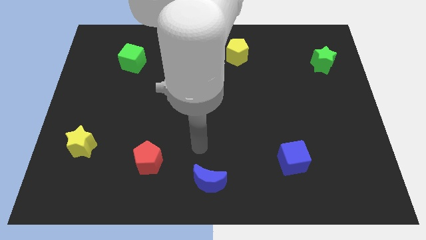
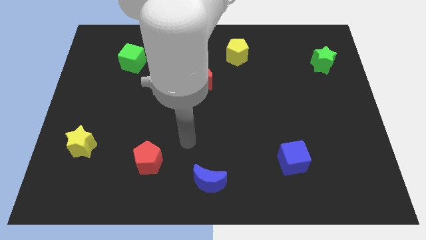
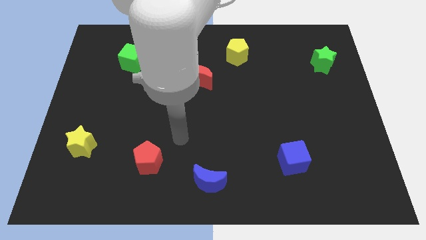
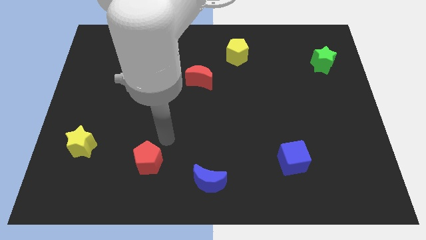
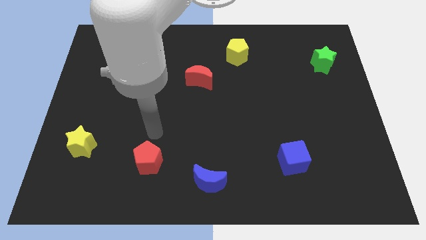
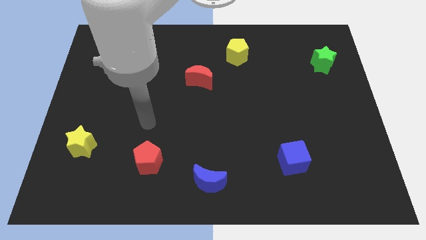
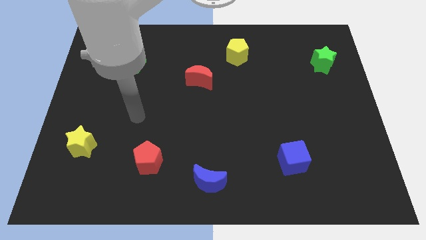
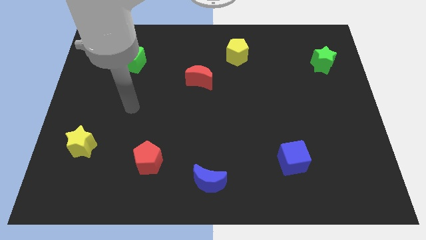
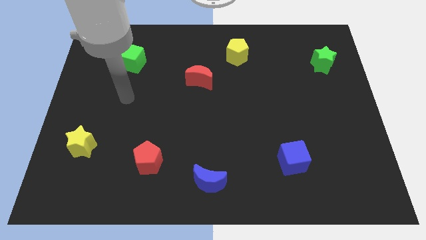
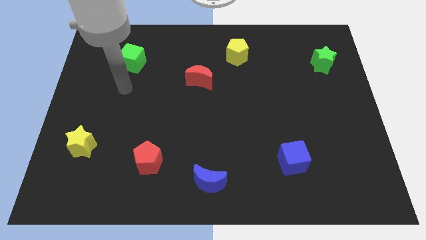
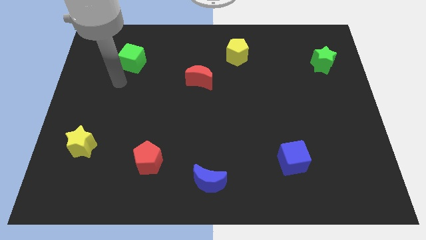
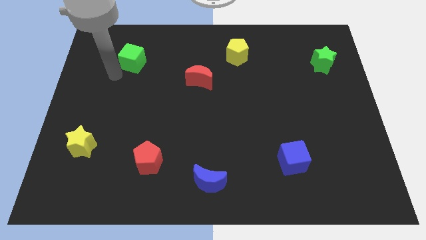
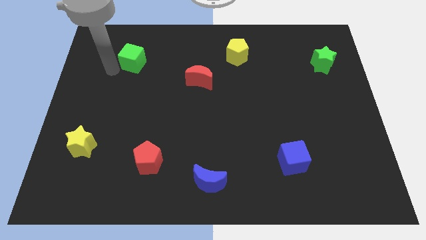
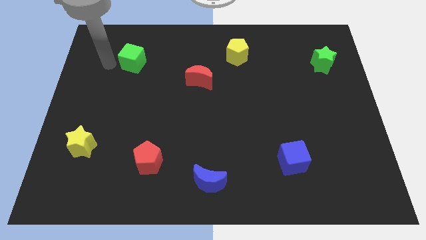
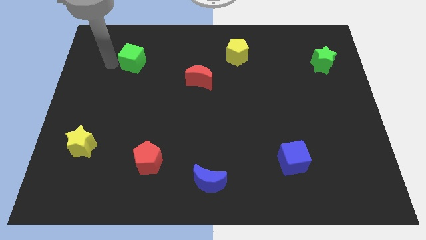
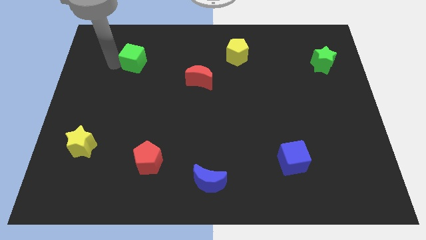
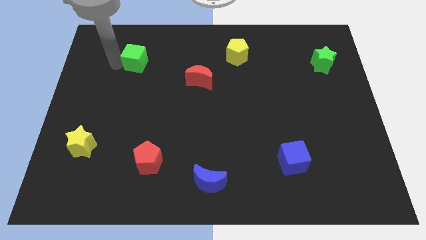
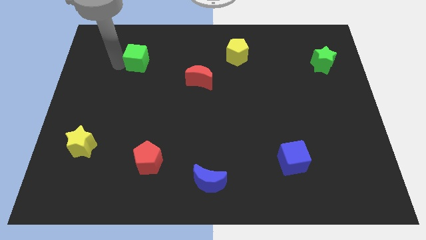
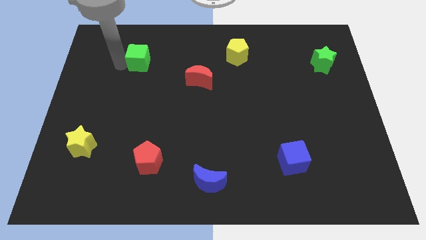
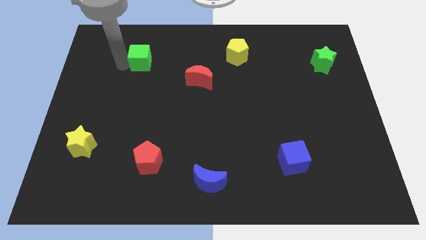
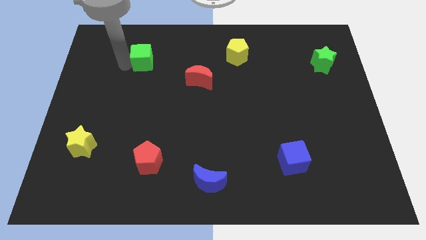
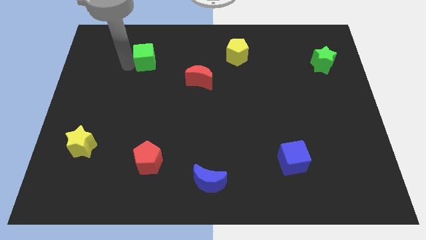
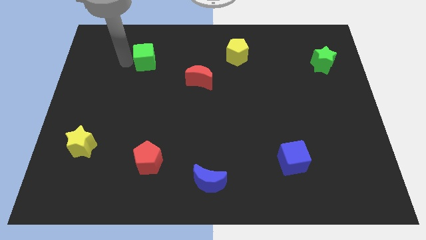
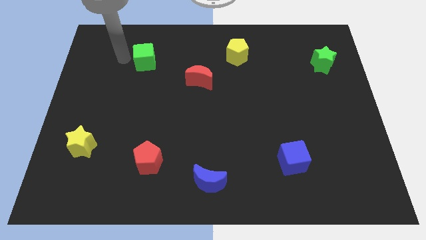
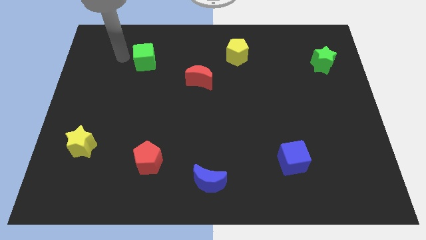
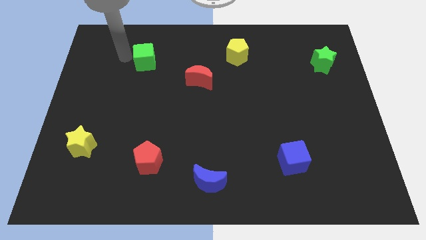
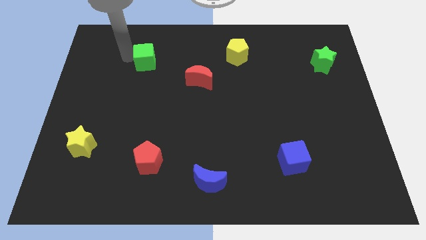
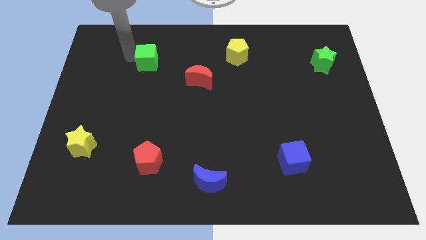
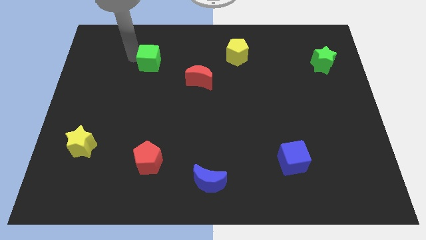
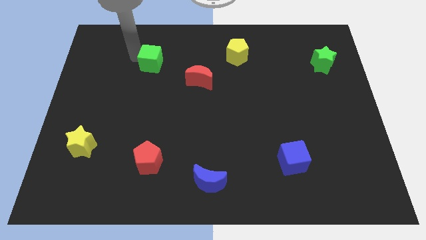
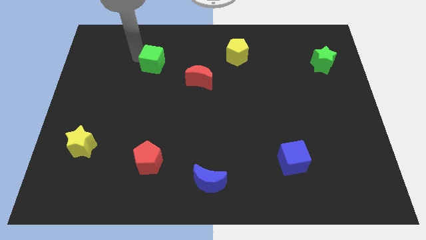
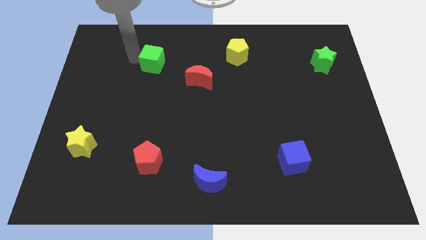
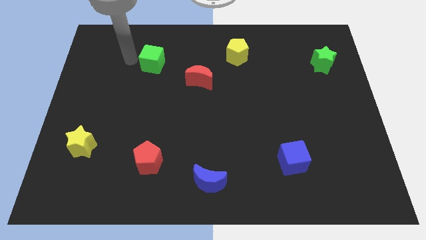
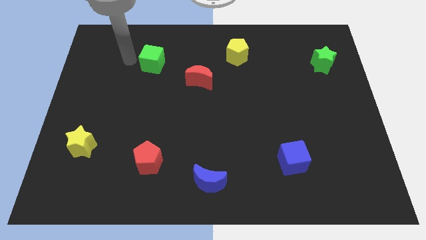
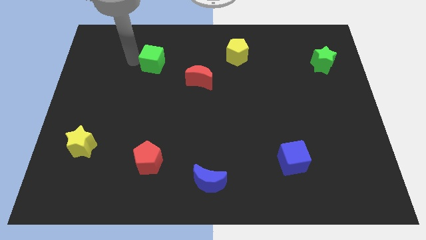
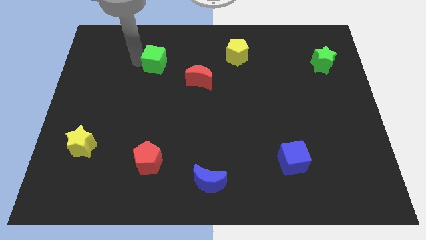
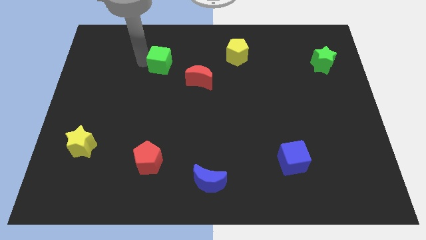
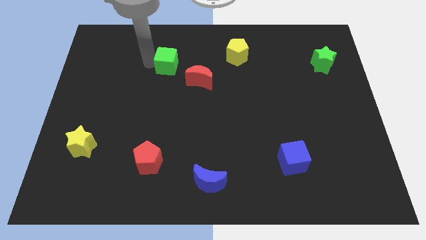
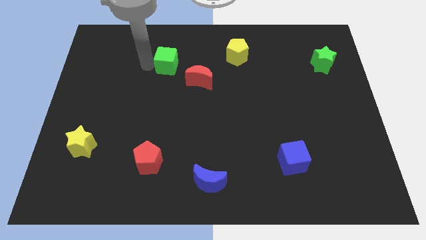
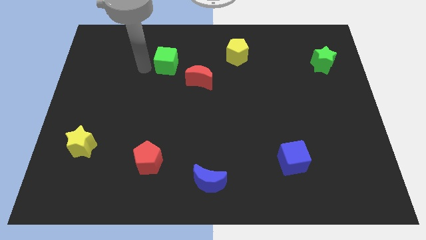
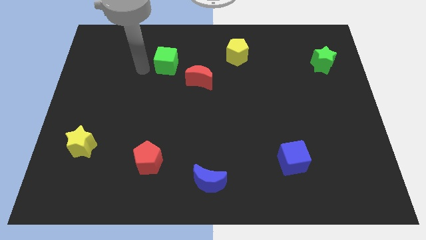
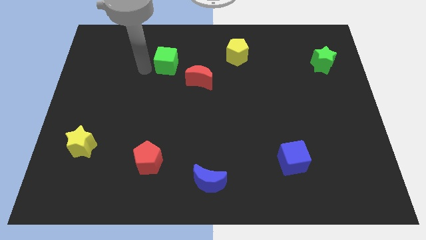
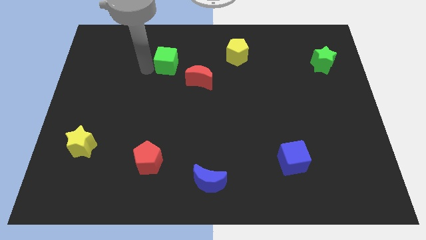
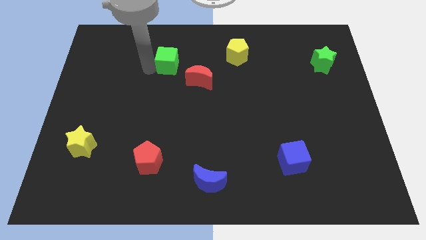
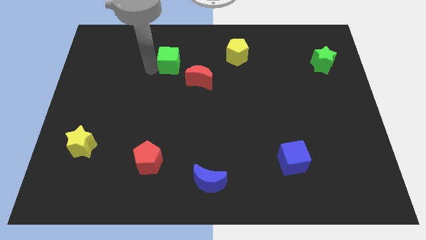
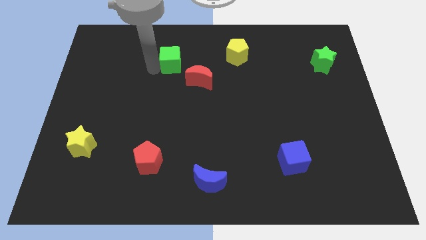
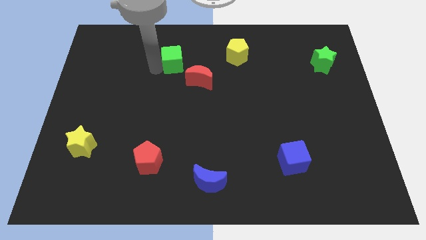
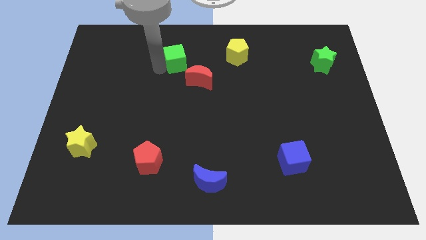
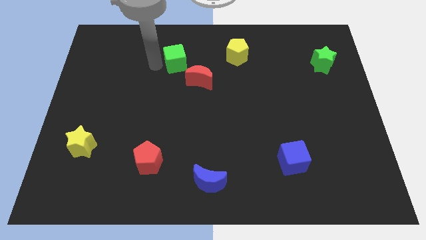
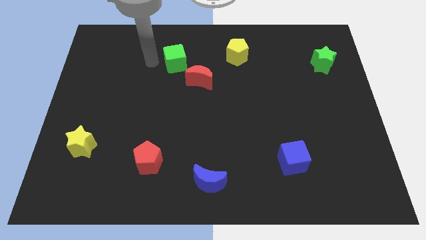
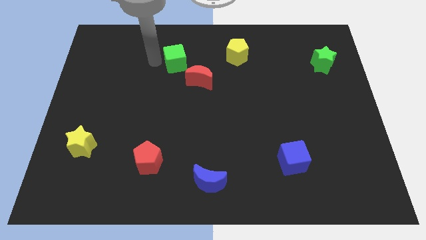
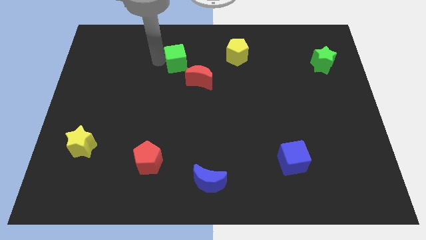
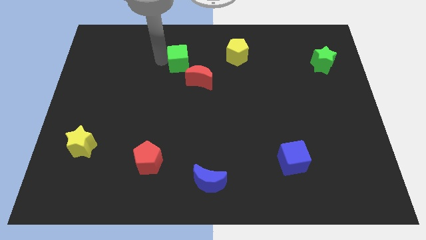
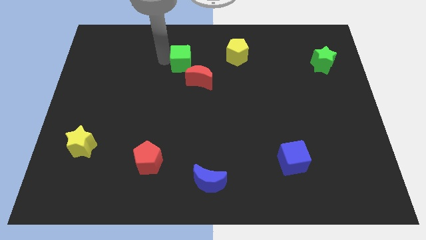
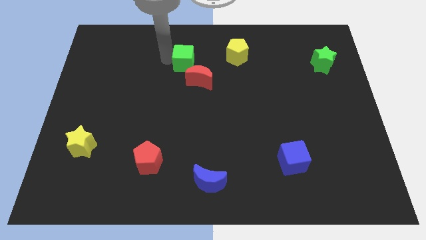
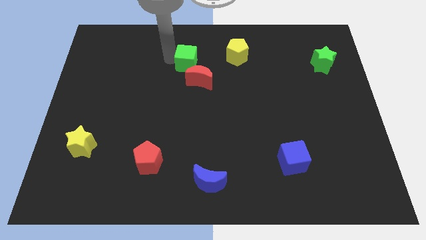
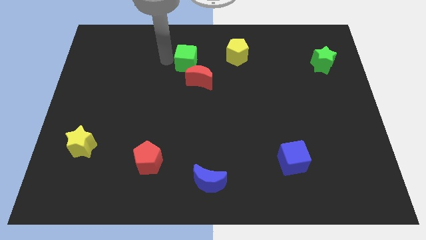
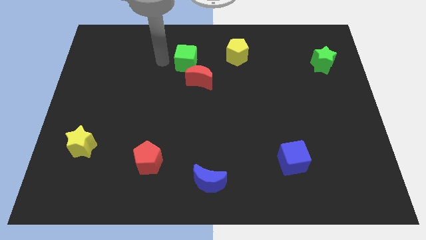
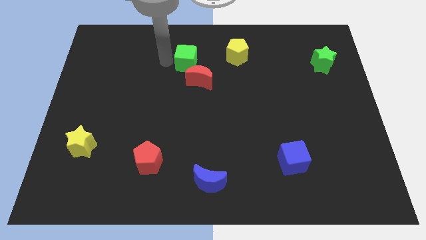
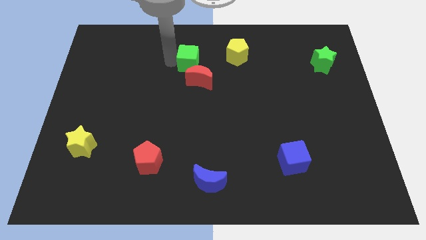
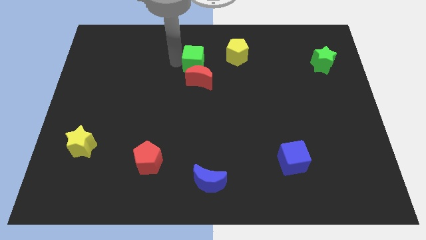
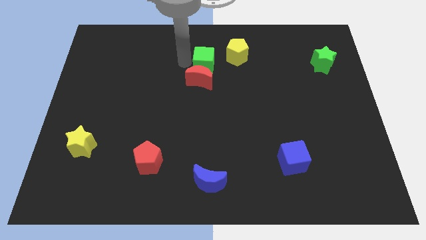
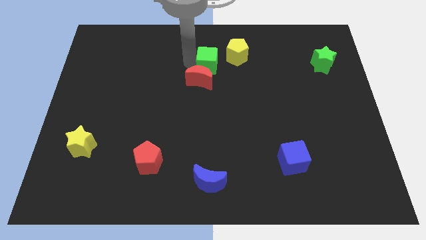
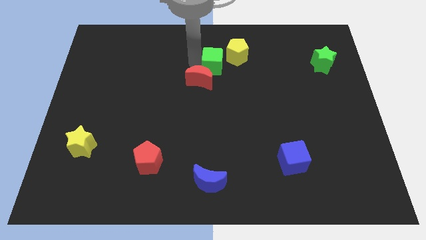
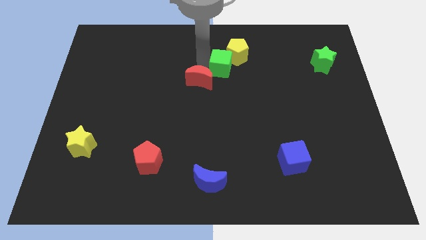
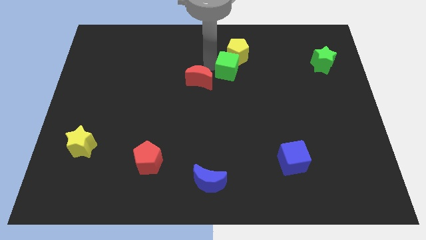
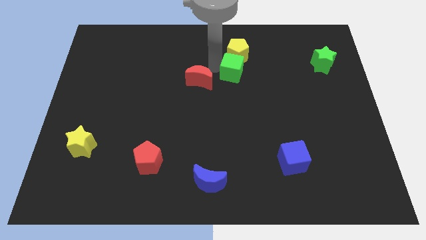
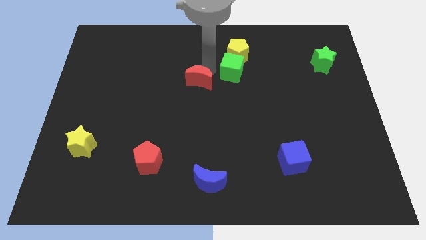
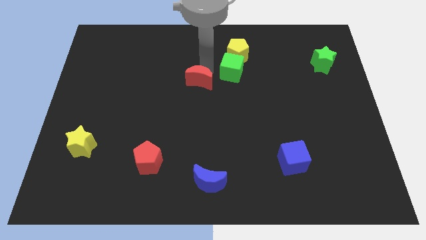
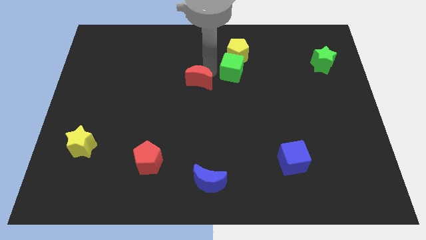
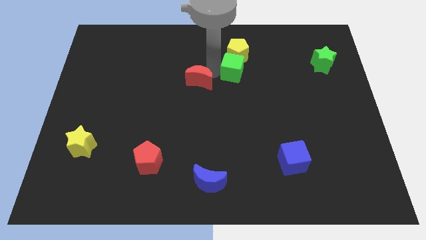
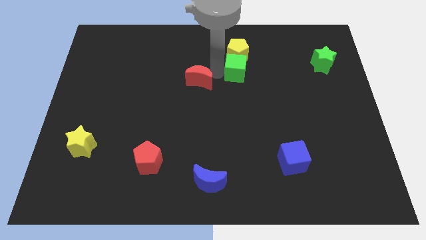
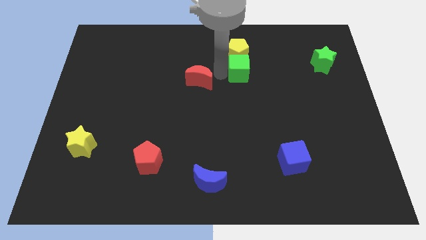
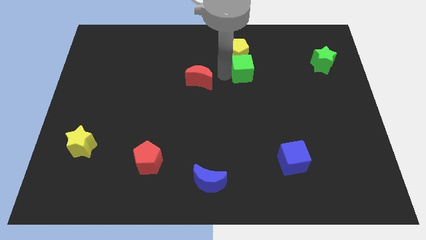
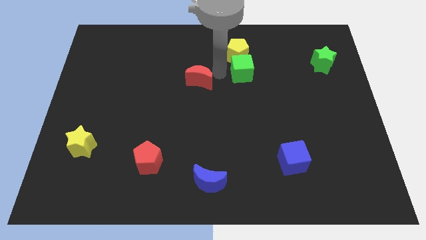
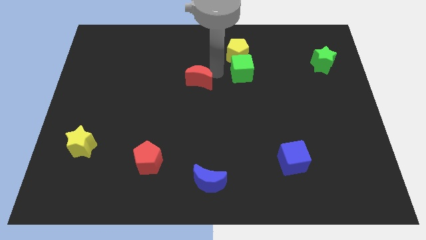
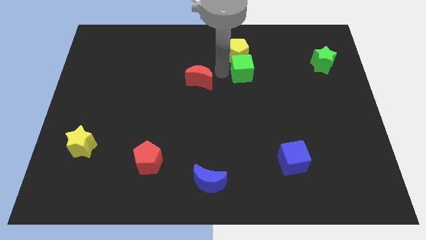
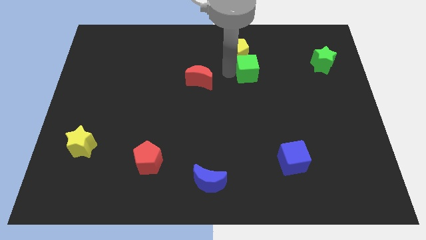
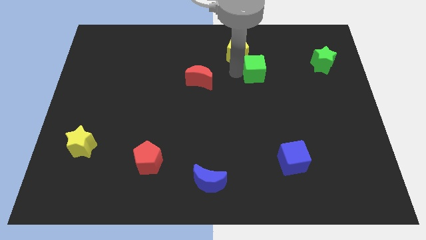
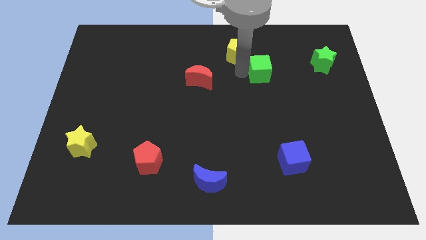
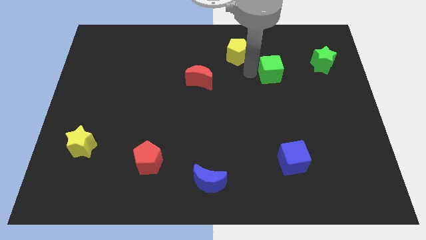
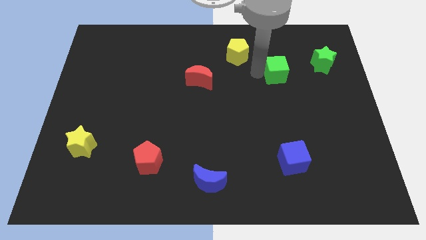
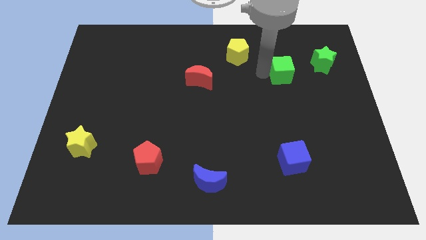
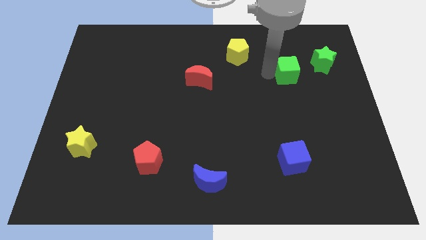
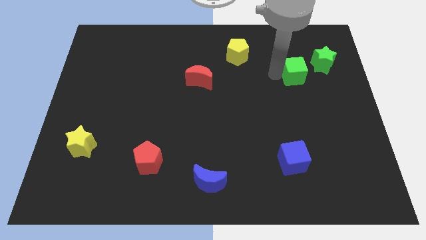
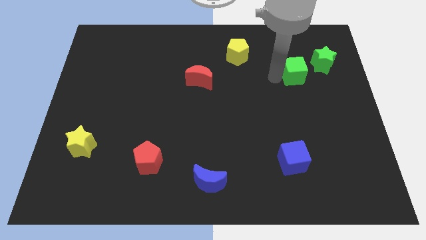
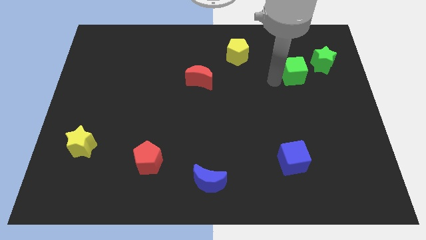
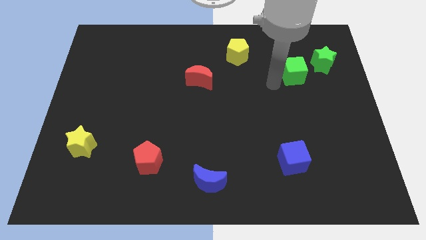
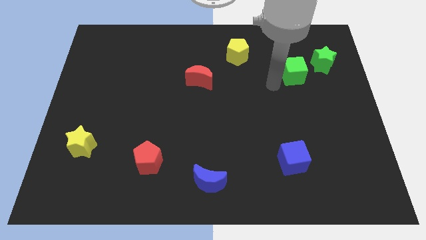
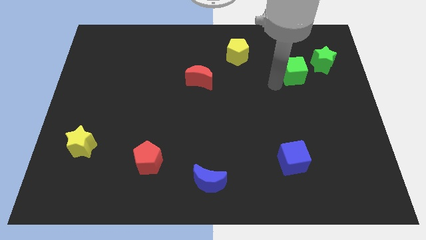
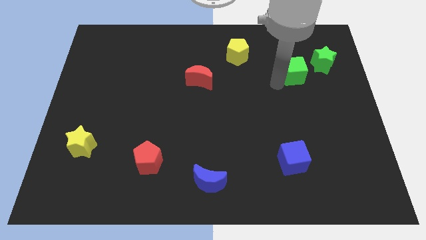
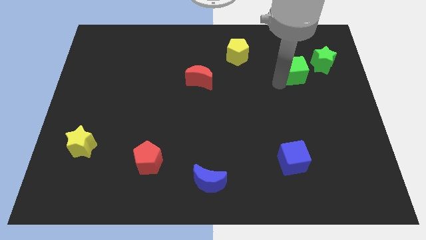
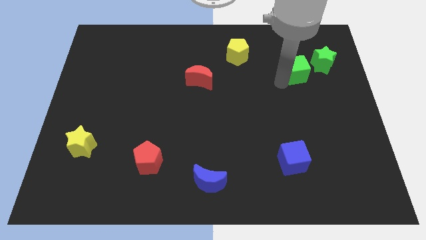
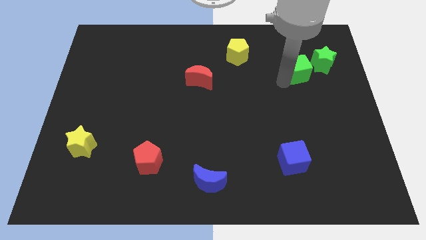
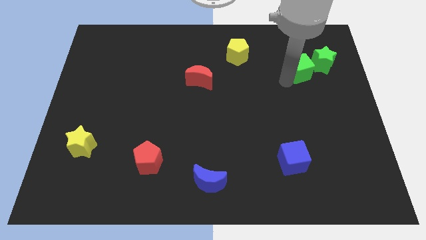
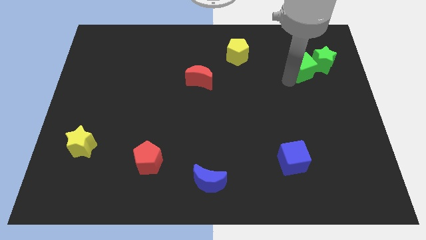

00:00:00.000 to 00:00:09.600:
slide the green cube next to the green star
